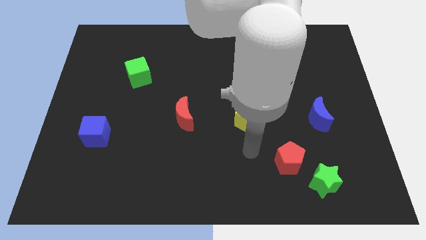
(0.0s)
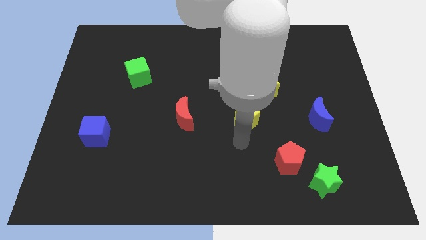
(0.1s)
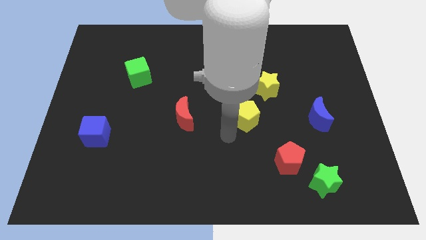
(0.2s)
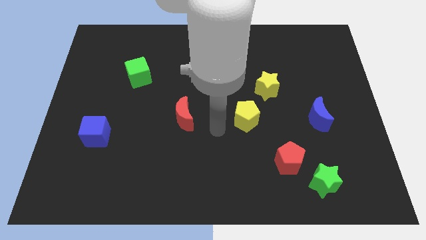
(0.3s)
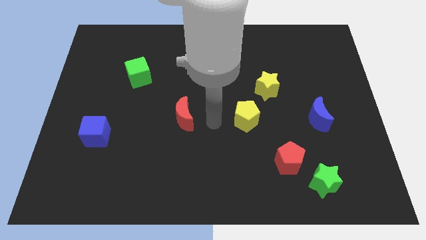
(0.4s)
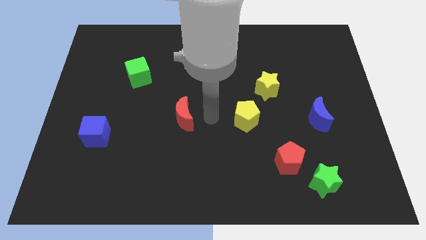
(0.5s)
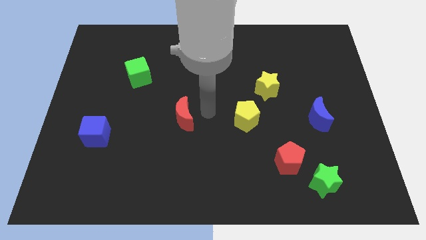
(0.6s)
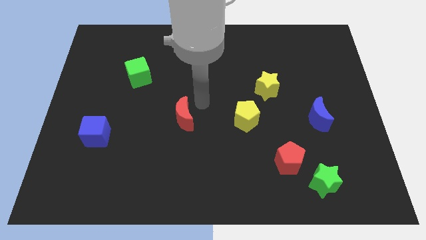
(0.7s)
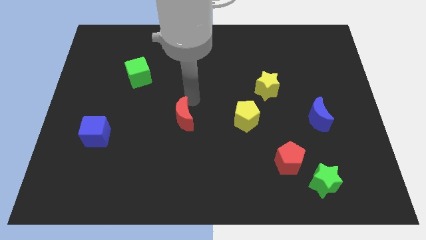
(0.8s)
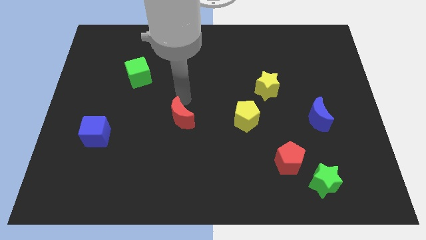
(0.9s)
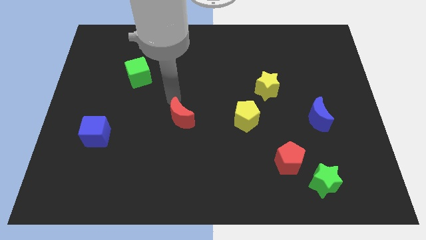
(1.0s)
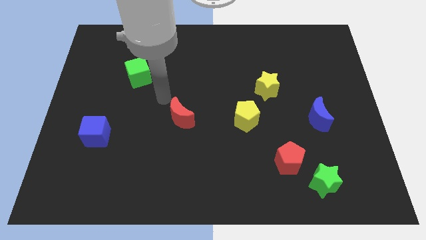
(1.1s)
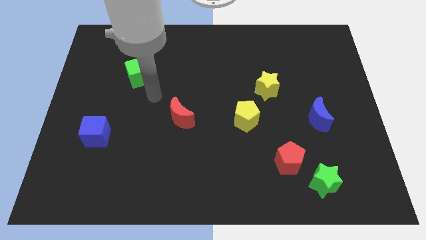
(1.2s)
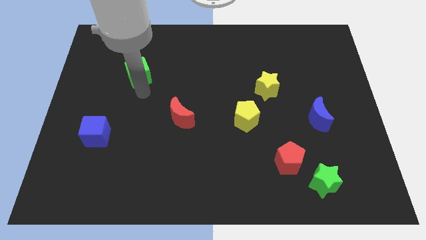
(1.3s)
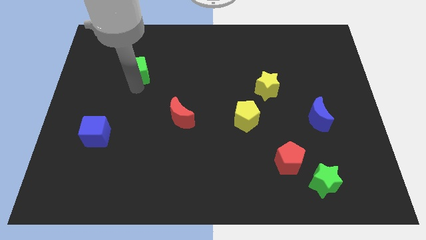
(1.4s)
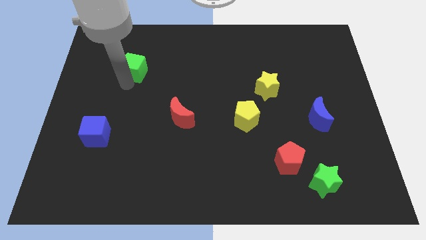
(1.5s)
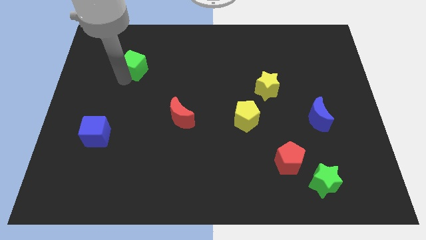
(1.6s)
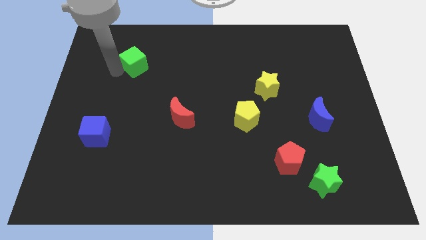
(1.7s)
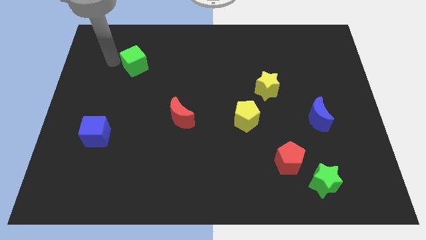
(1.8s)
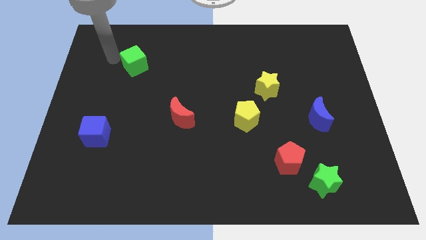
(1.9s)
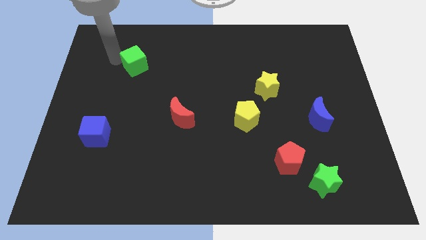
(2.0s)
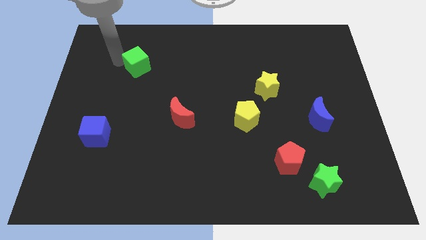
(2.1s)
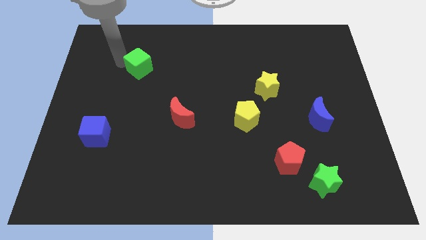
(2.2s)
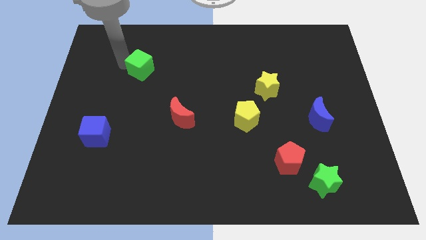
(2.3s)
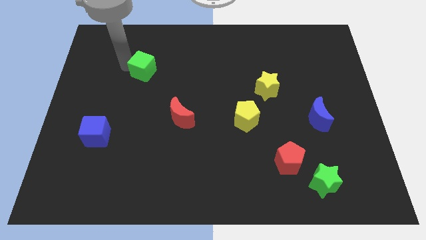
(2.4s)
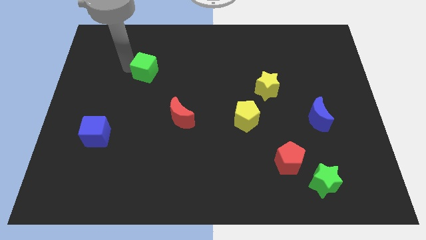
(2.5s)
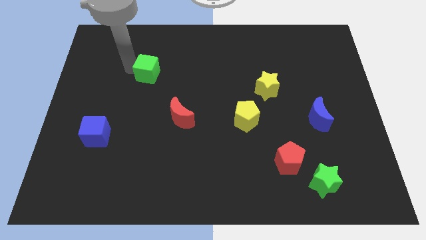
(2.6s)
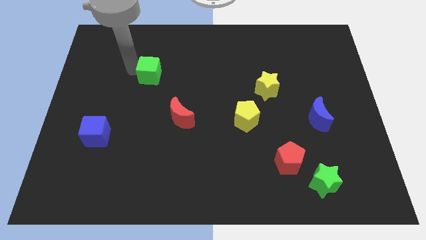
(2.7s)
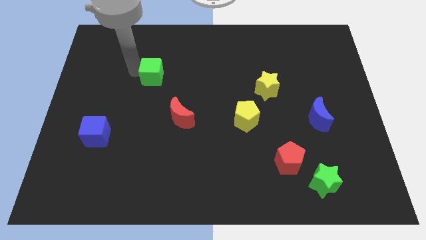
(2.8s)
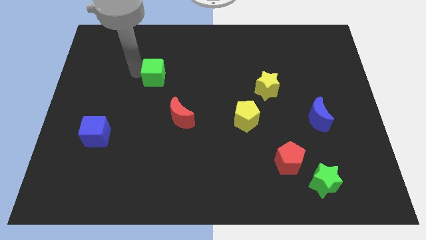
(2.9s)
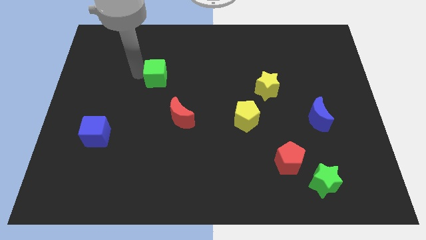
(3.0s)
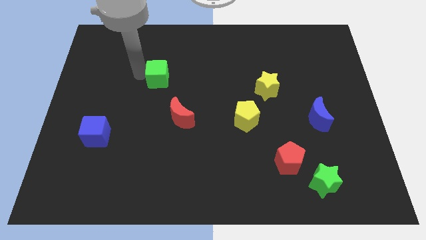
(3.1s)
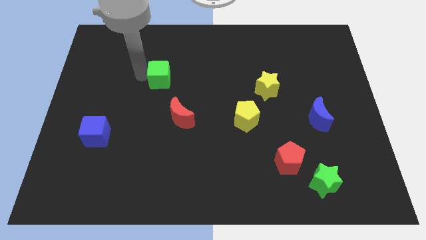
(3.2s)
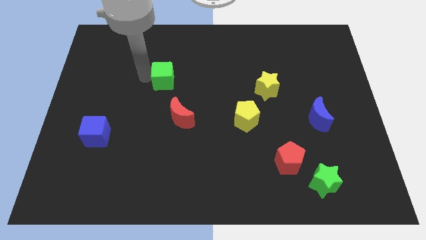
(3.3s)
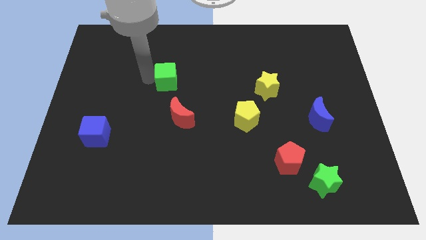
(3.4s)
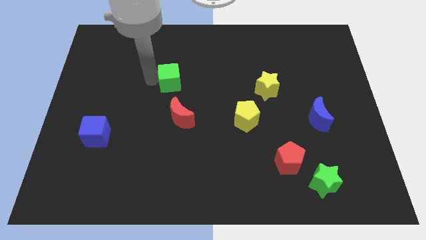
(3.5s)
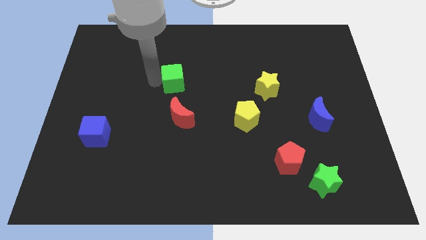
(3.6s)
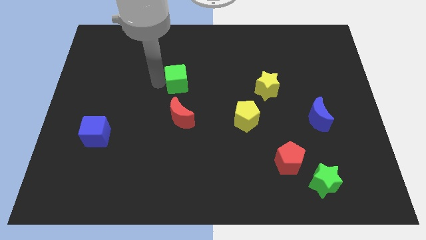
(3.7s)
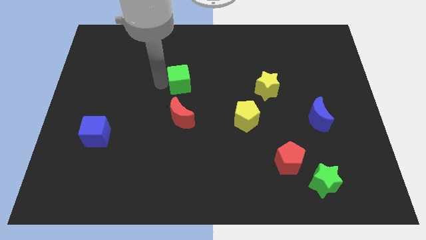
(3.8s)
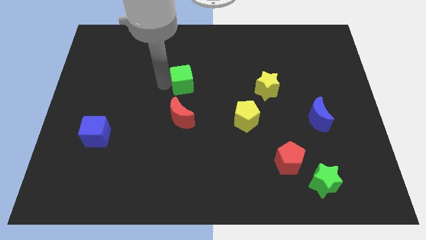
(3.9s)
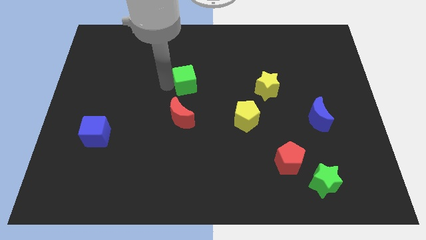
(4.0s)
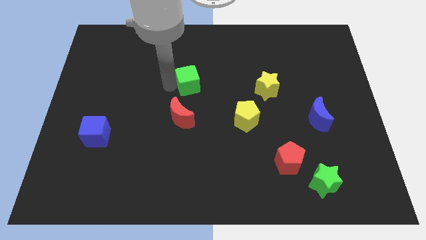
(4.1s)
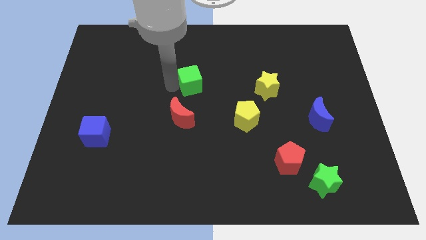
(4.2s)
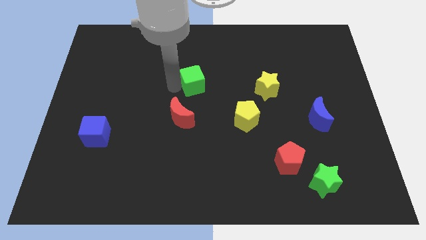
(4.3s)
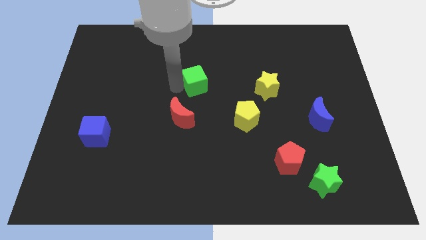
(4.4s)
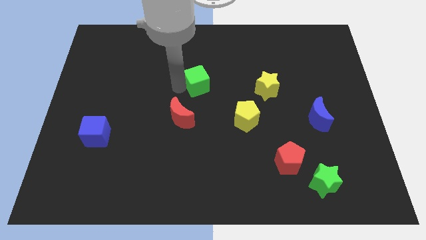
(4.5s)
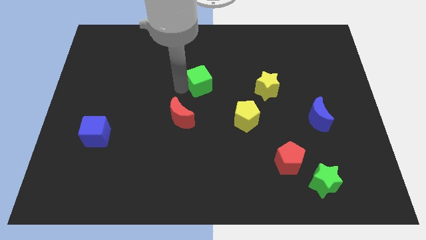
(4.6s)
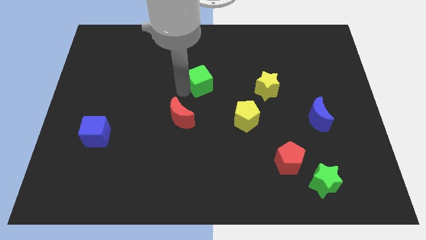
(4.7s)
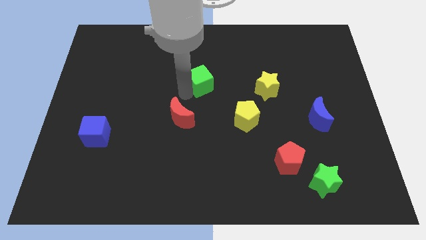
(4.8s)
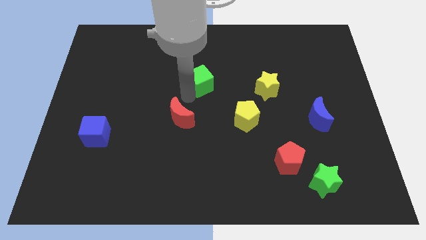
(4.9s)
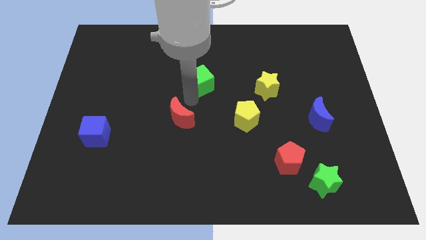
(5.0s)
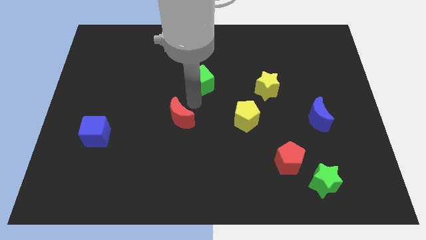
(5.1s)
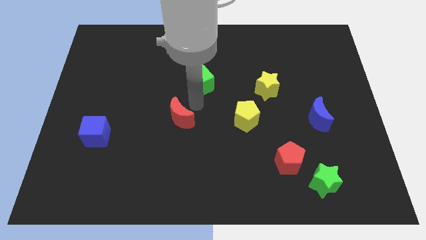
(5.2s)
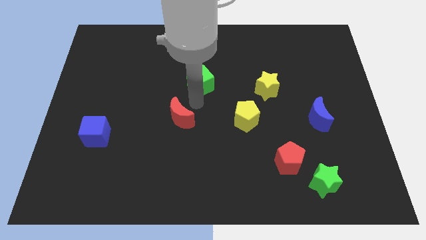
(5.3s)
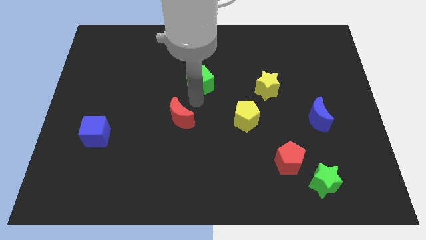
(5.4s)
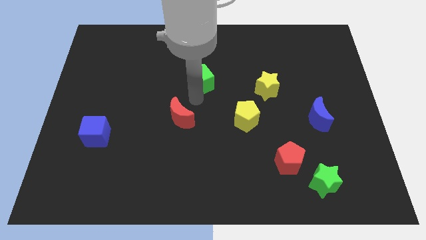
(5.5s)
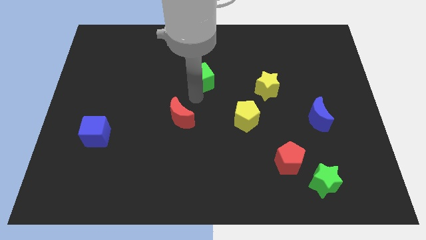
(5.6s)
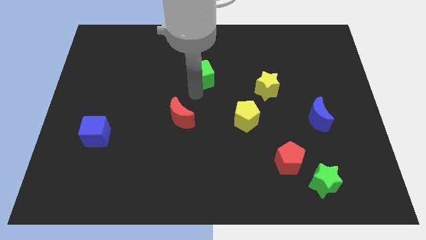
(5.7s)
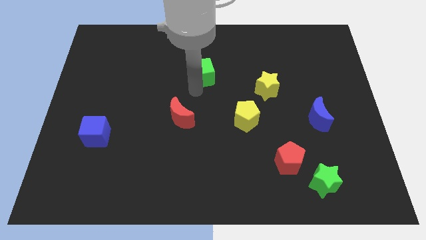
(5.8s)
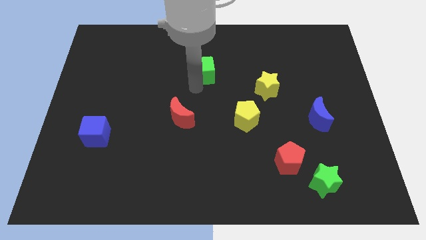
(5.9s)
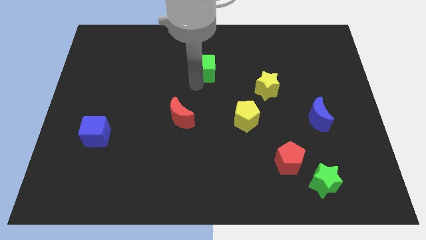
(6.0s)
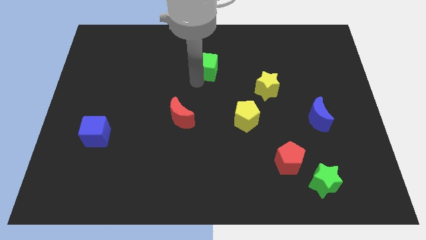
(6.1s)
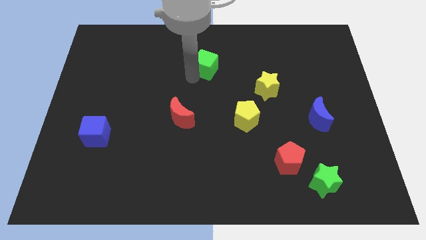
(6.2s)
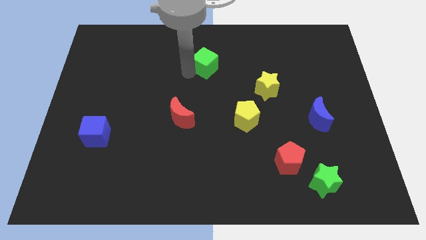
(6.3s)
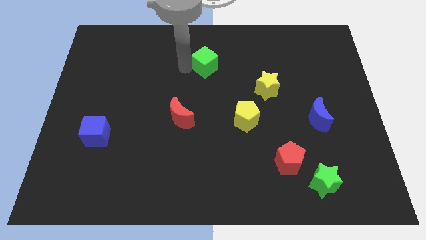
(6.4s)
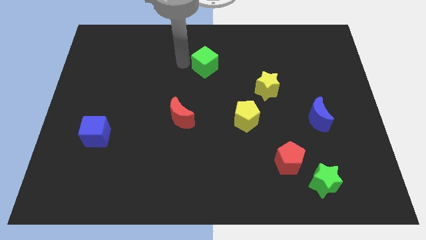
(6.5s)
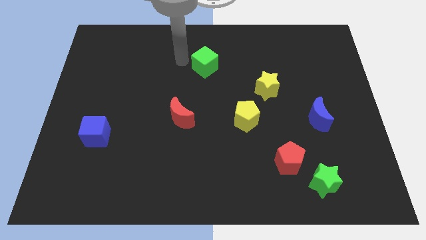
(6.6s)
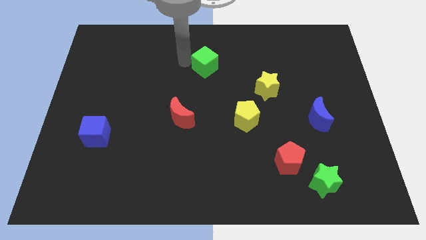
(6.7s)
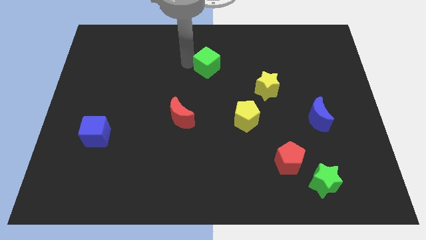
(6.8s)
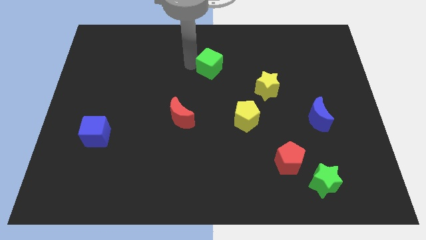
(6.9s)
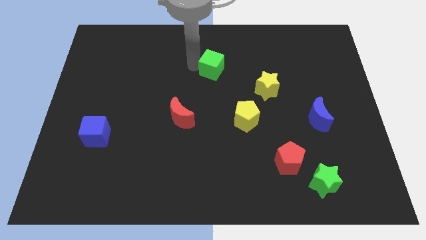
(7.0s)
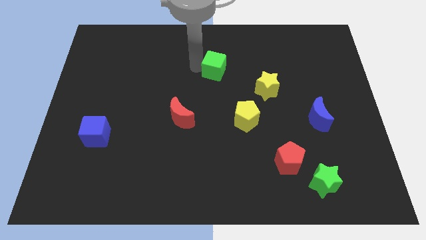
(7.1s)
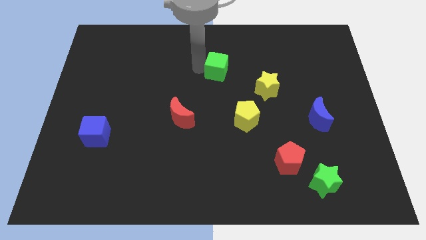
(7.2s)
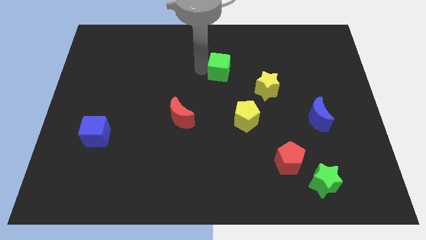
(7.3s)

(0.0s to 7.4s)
slide the green cube right

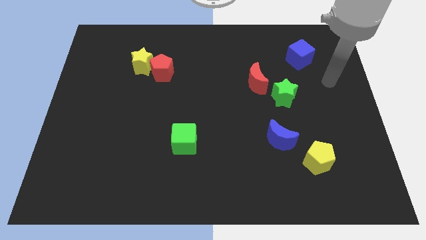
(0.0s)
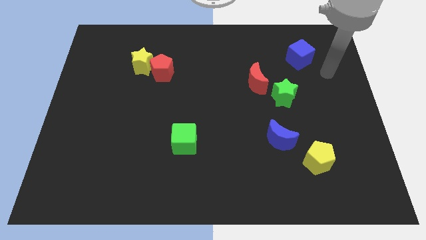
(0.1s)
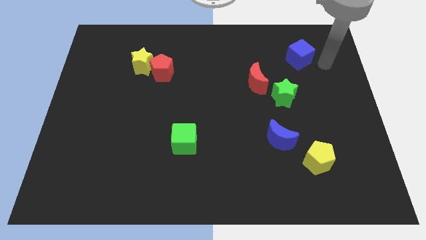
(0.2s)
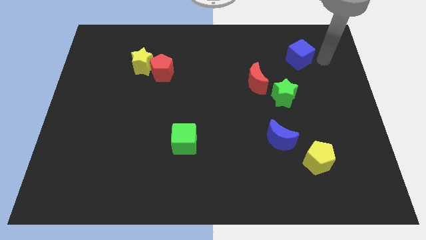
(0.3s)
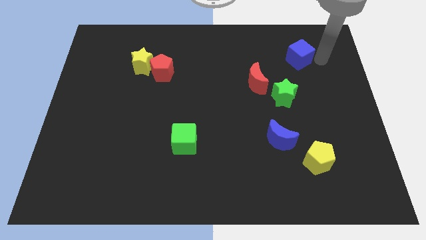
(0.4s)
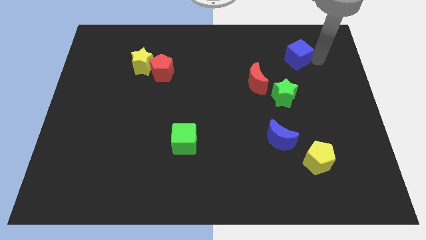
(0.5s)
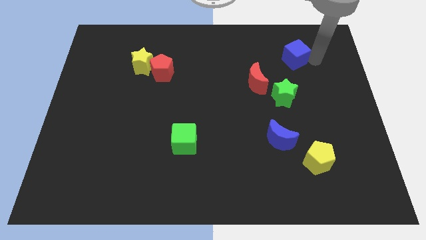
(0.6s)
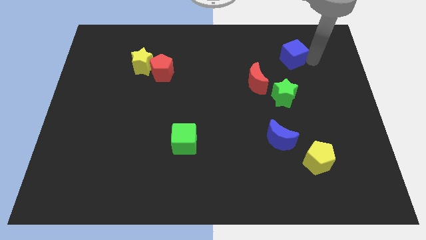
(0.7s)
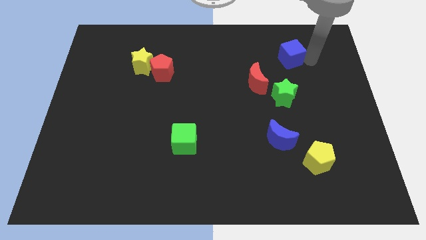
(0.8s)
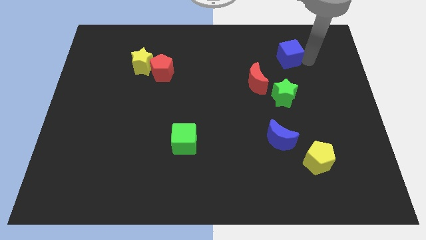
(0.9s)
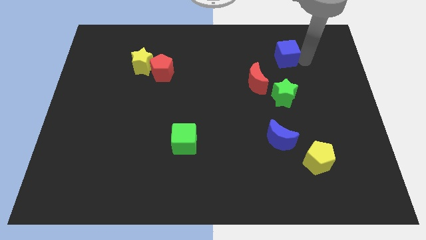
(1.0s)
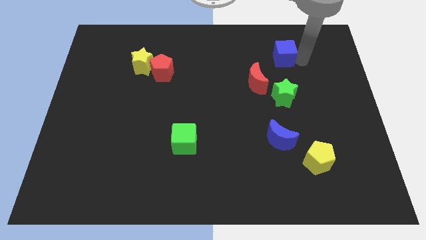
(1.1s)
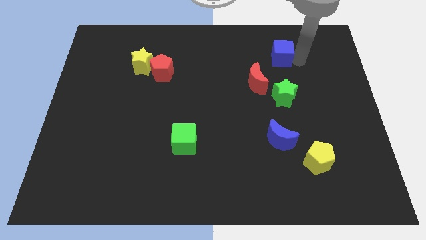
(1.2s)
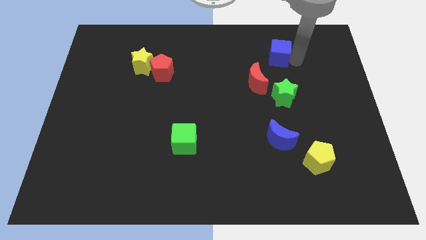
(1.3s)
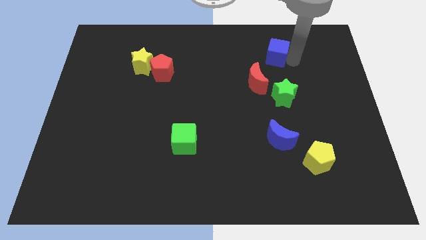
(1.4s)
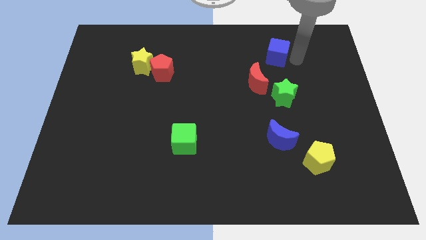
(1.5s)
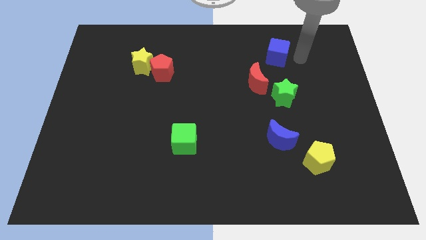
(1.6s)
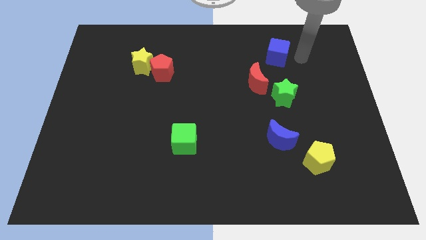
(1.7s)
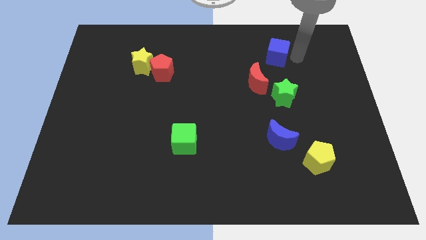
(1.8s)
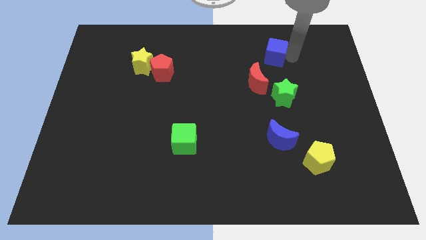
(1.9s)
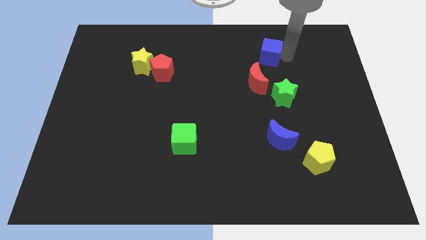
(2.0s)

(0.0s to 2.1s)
push the blue cube to the left a little
